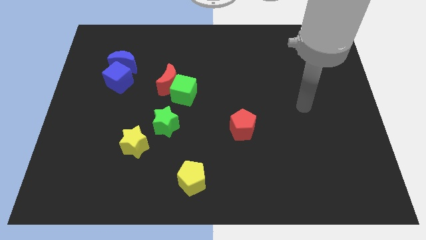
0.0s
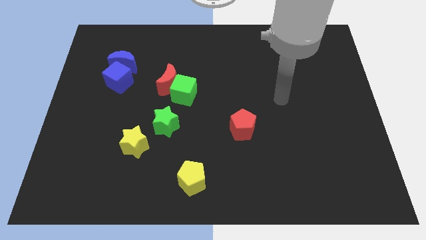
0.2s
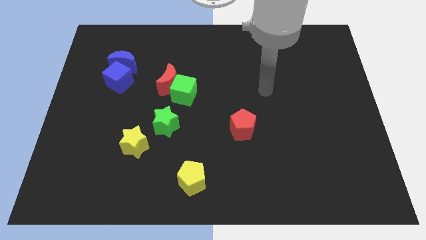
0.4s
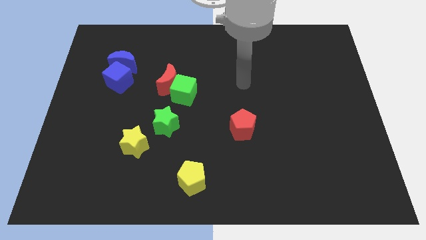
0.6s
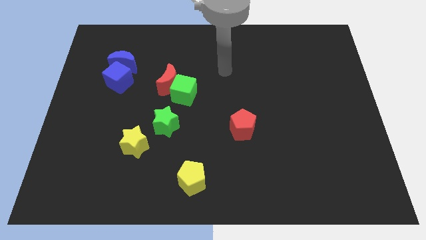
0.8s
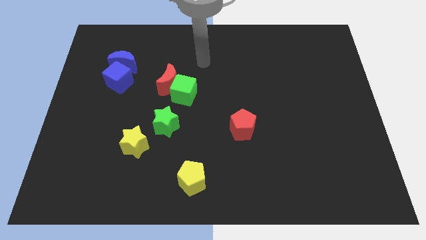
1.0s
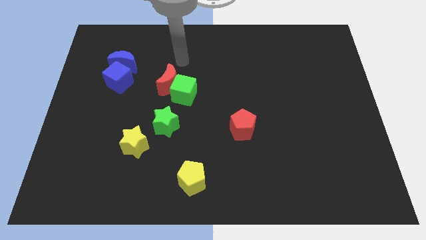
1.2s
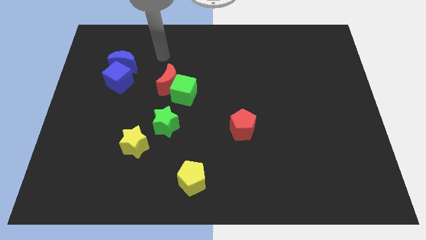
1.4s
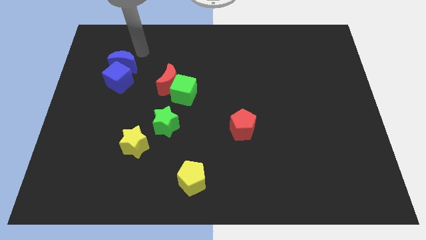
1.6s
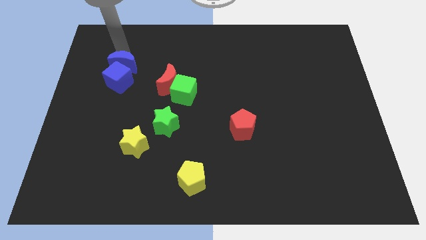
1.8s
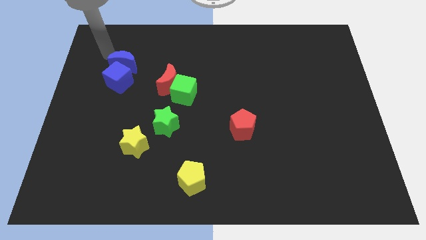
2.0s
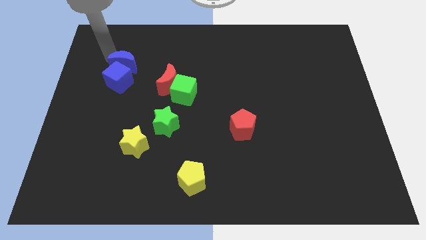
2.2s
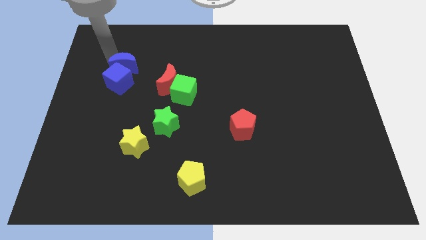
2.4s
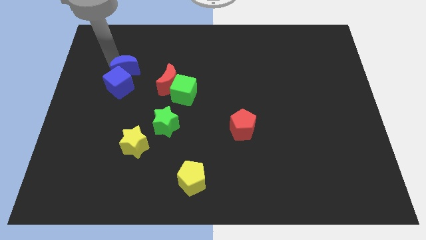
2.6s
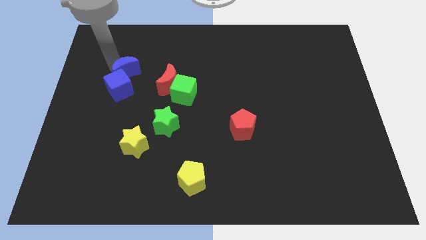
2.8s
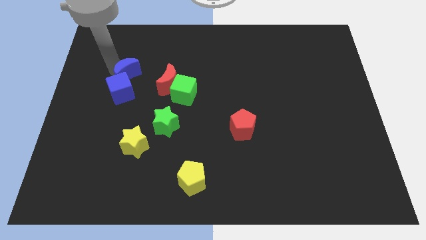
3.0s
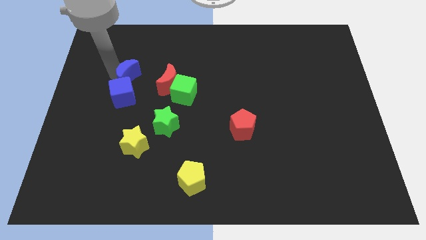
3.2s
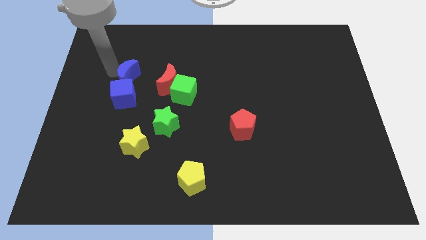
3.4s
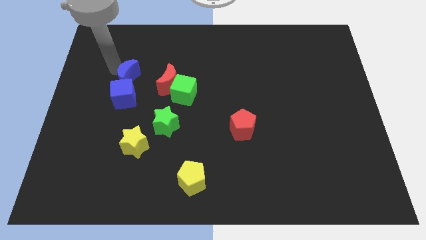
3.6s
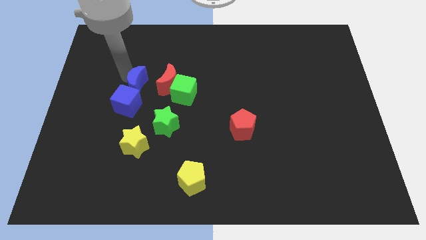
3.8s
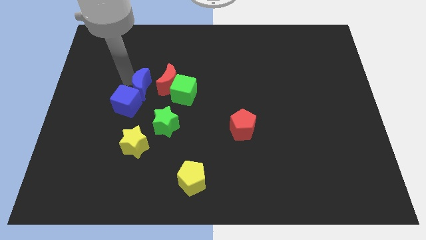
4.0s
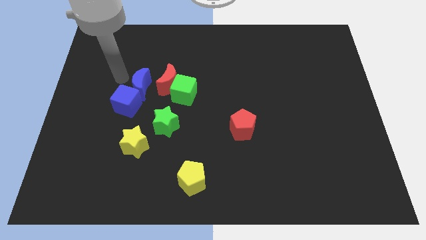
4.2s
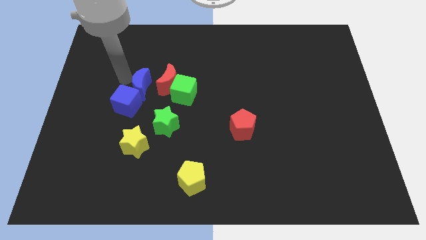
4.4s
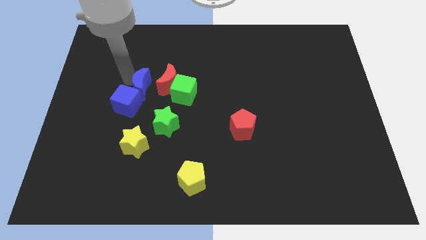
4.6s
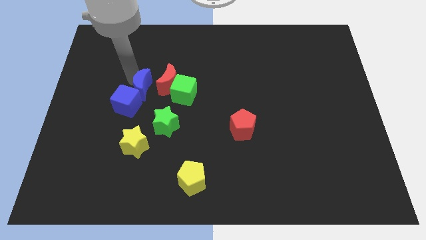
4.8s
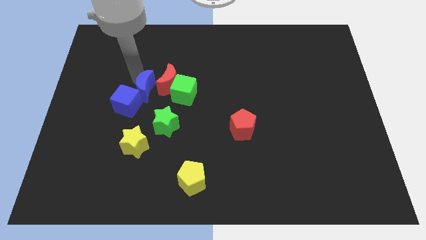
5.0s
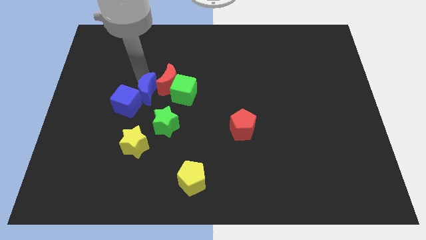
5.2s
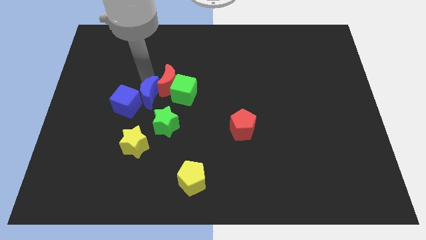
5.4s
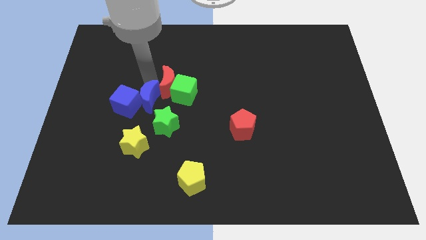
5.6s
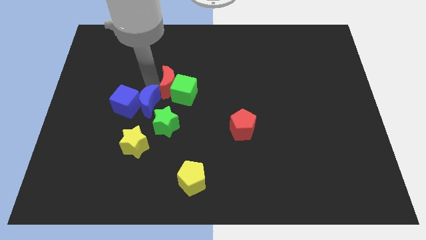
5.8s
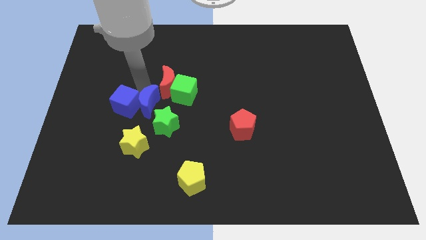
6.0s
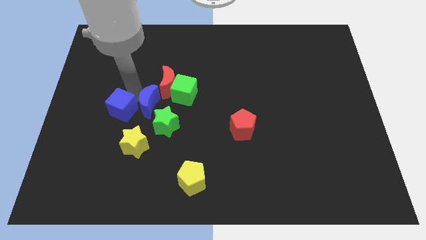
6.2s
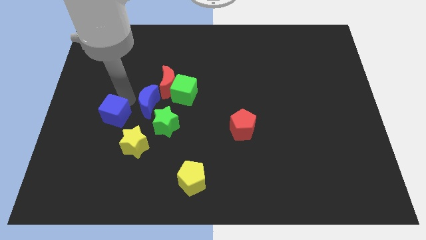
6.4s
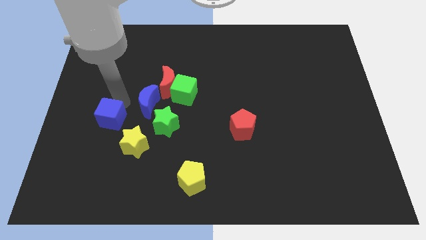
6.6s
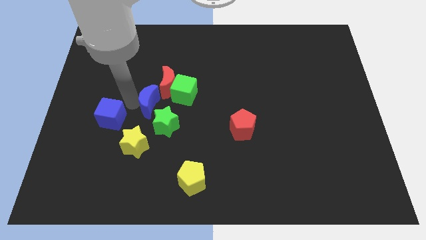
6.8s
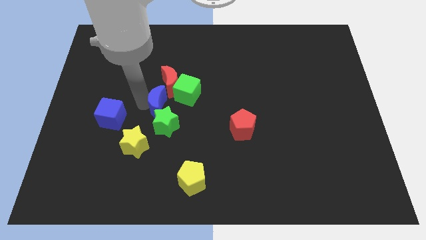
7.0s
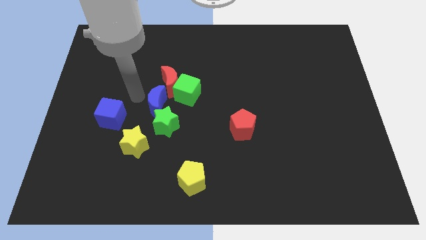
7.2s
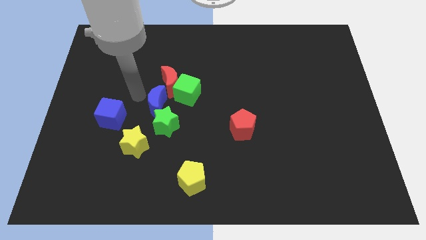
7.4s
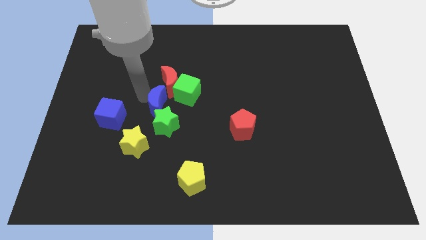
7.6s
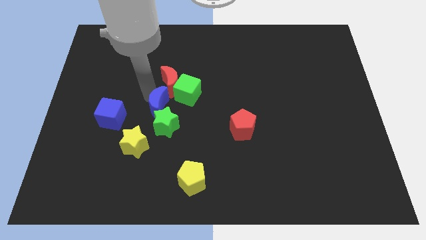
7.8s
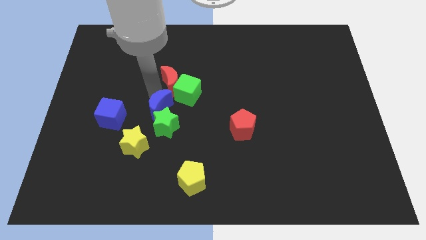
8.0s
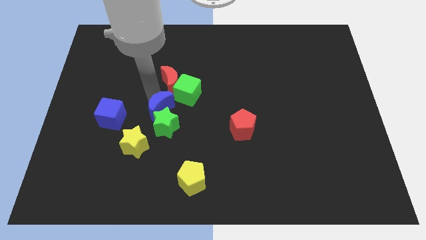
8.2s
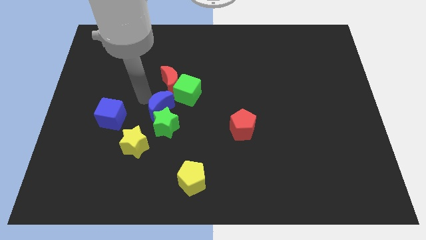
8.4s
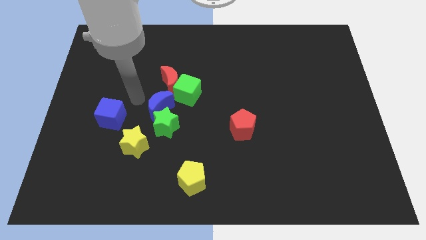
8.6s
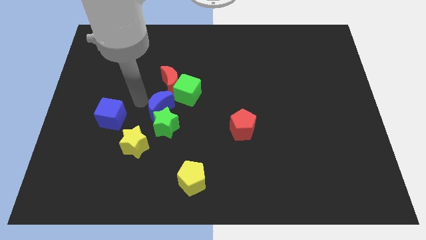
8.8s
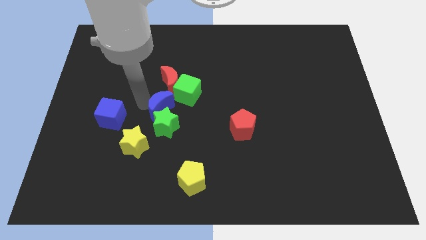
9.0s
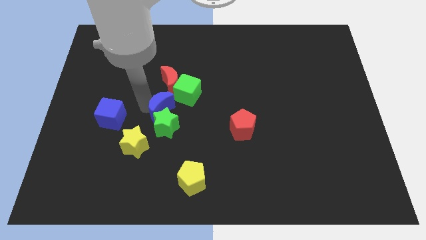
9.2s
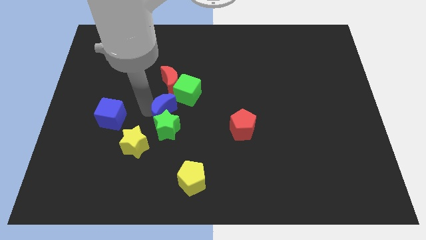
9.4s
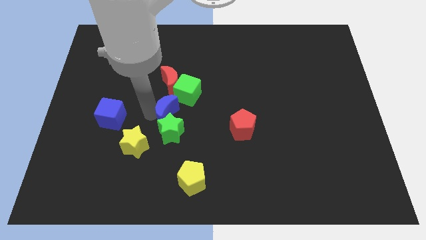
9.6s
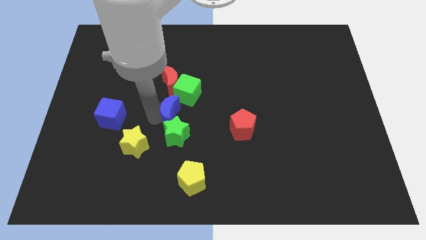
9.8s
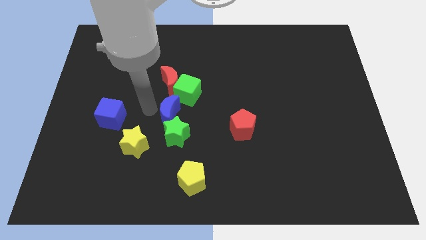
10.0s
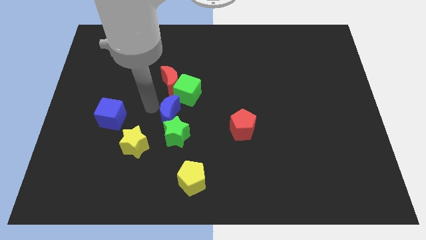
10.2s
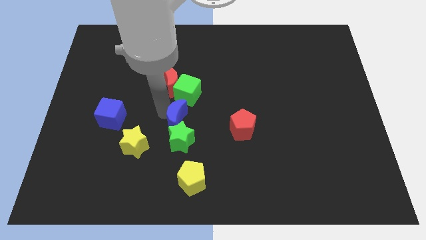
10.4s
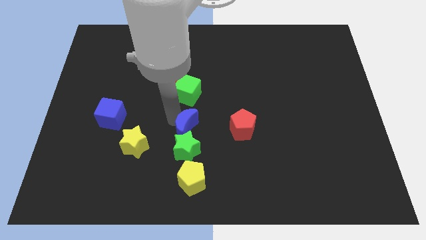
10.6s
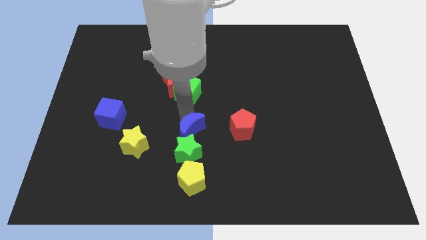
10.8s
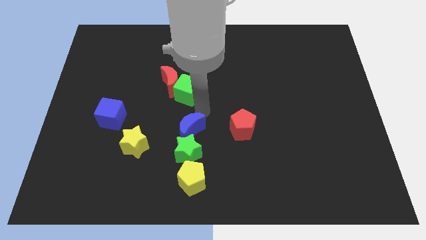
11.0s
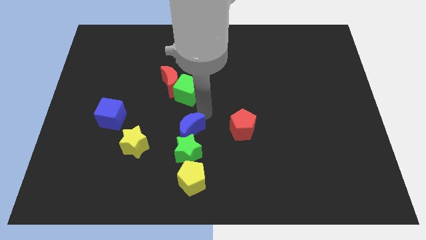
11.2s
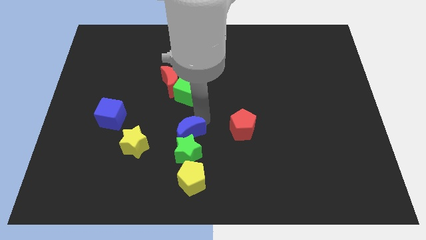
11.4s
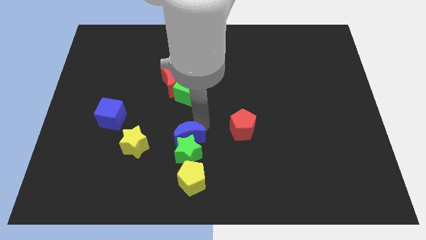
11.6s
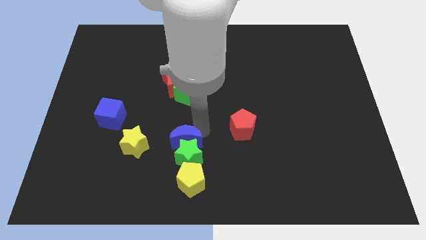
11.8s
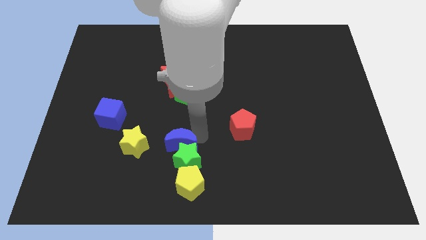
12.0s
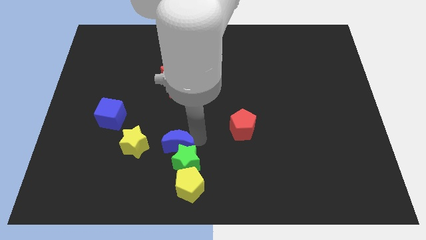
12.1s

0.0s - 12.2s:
push the blue moon to the top left side of the yellow pentagon
